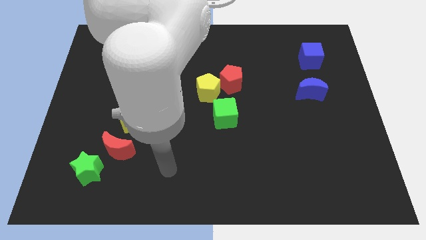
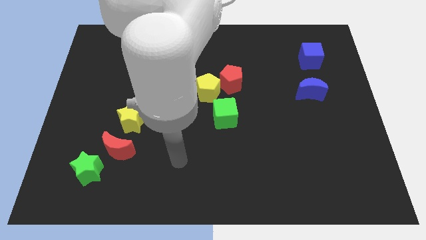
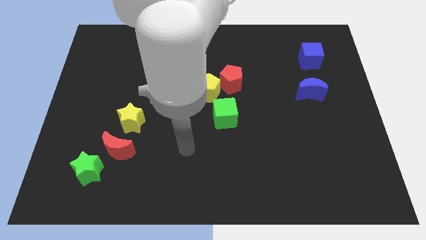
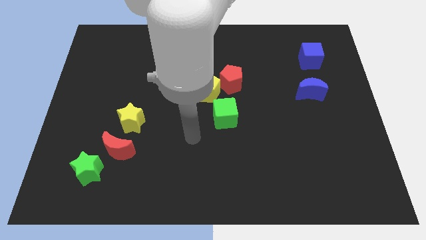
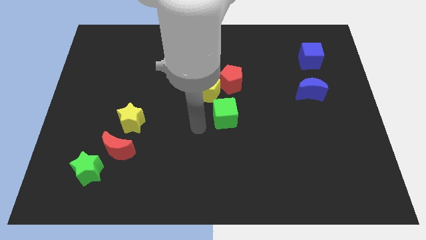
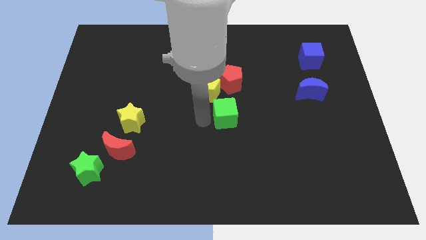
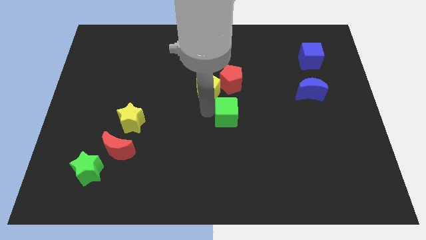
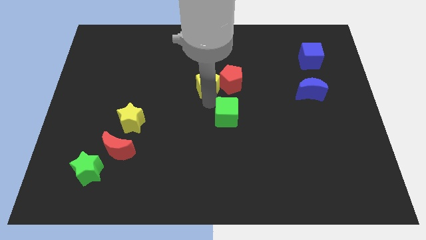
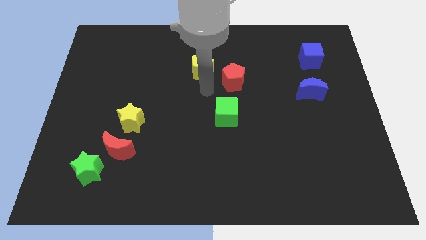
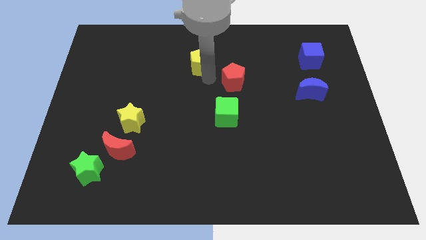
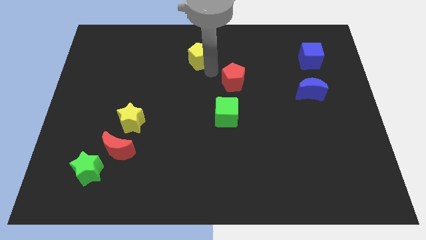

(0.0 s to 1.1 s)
pull the red pentagon apart from the yellow pentagon

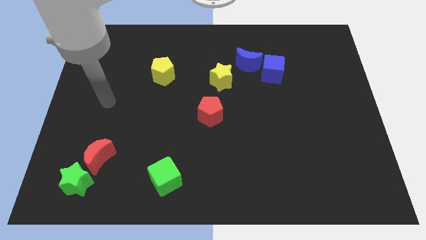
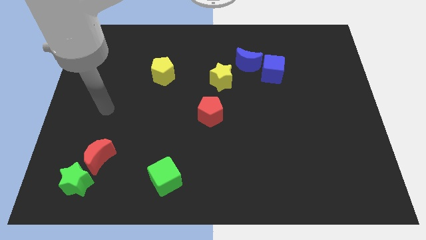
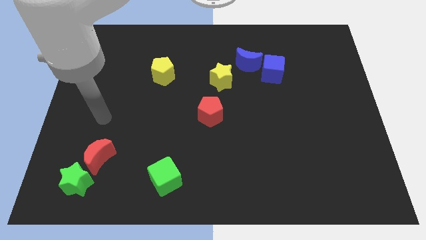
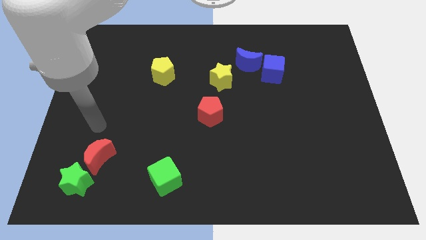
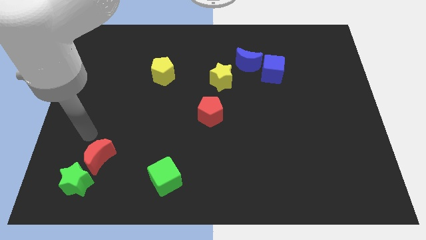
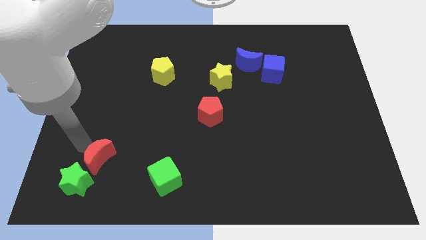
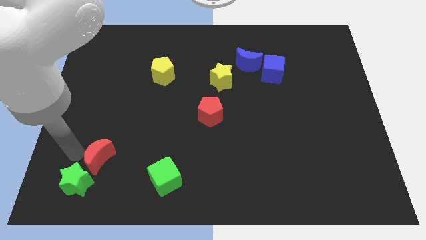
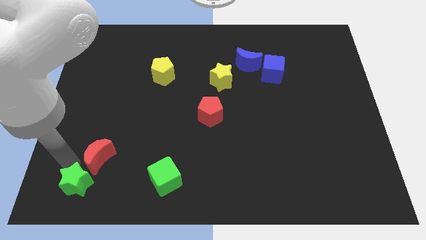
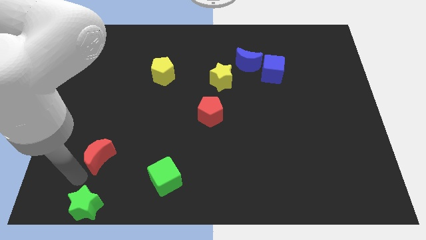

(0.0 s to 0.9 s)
move the red moon away from the green star

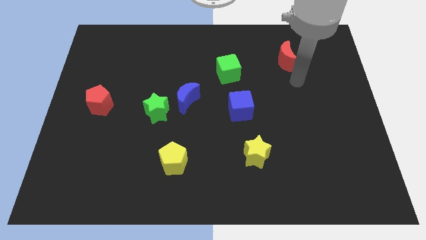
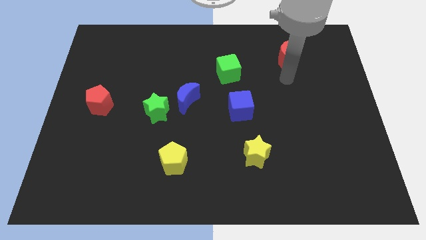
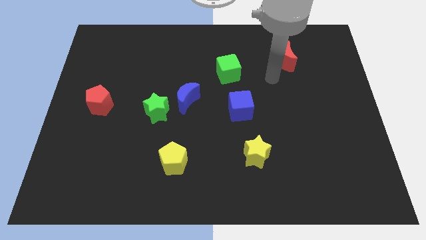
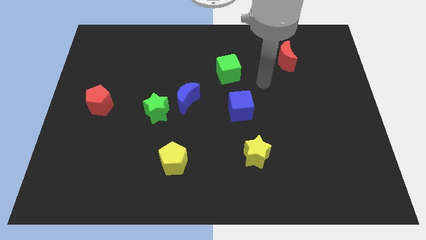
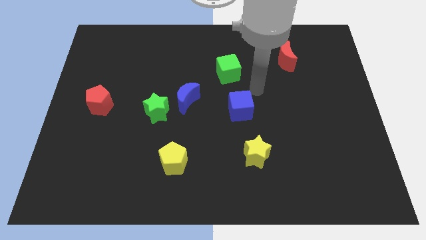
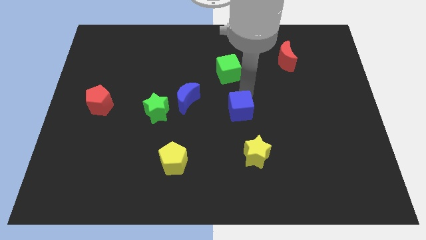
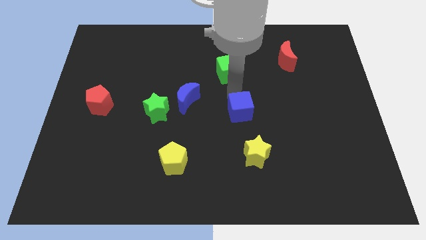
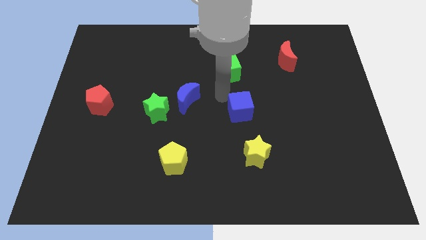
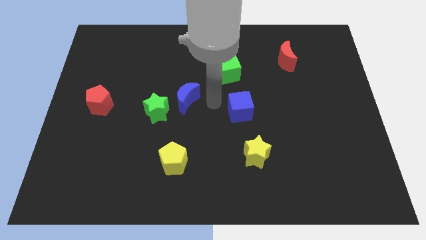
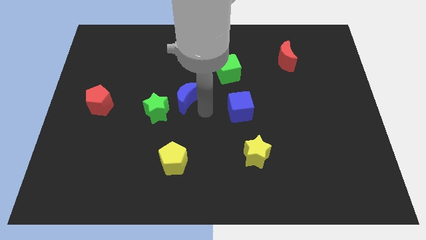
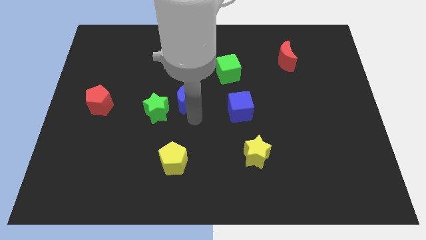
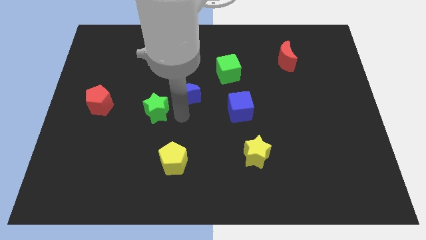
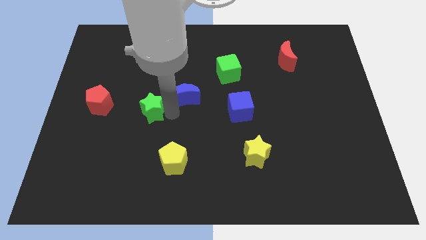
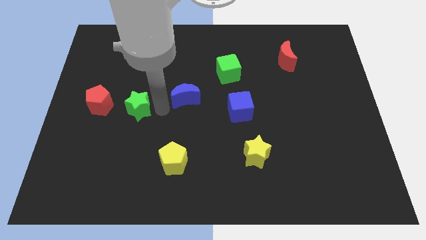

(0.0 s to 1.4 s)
pull the blue moon apart from the green star

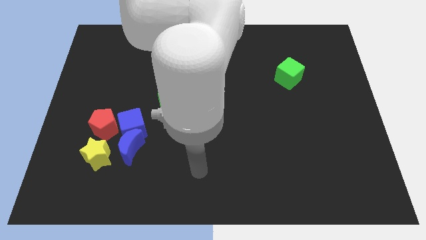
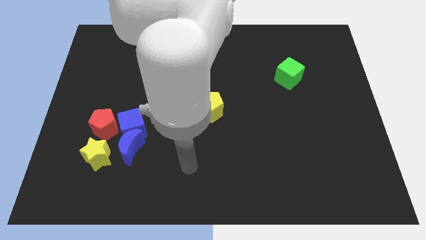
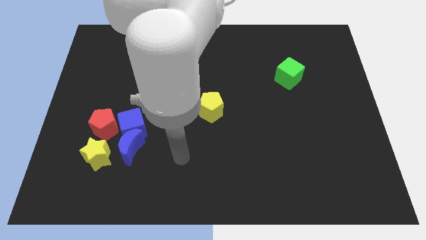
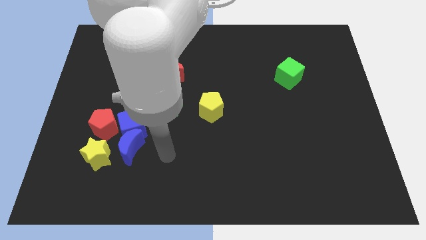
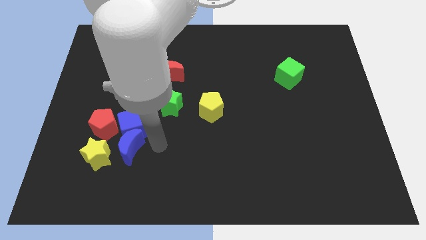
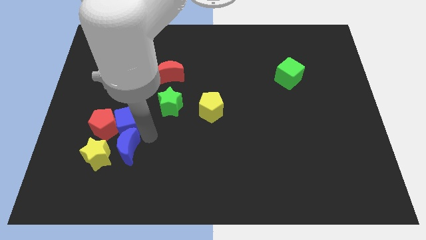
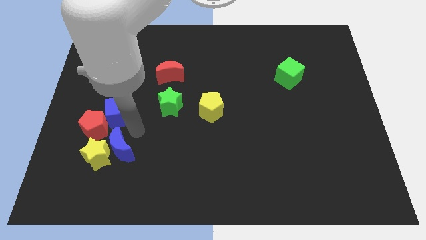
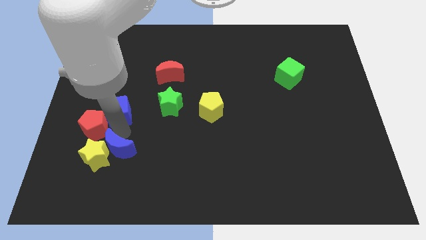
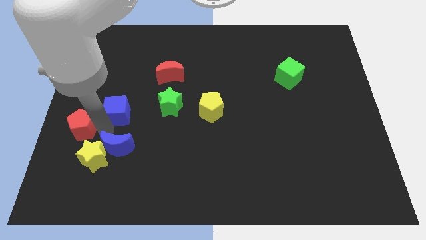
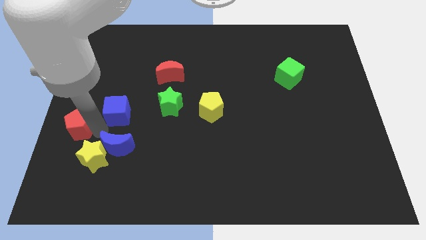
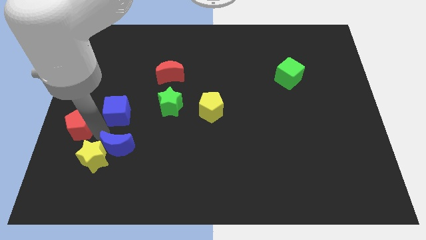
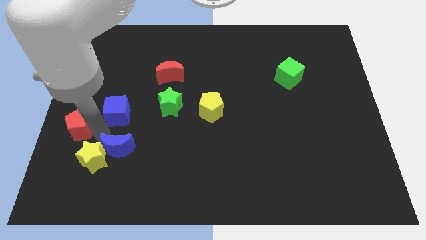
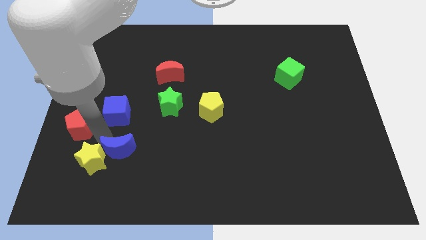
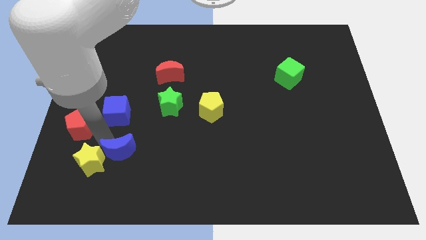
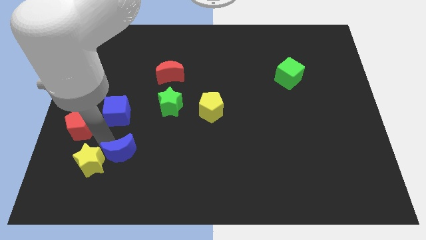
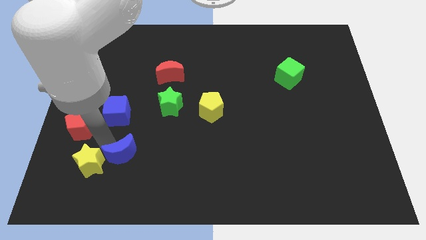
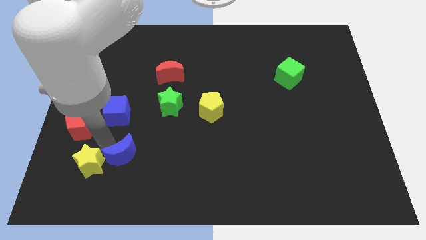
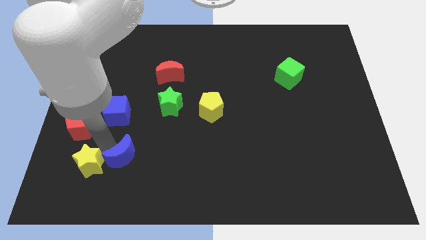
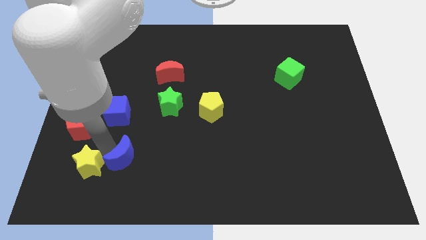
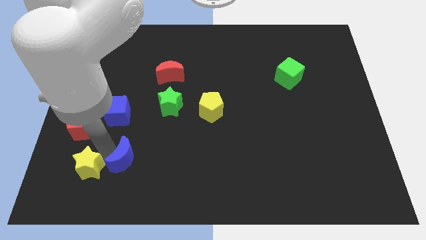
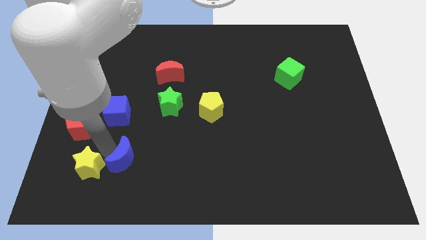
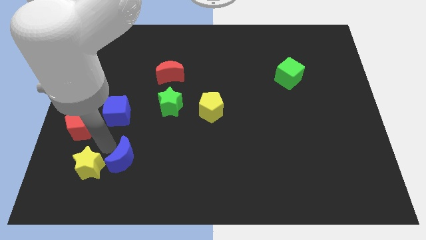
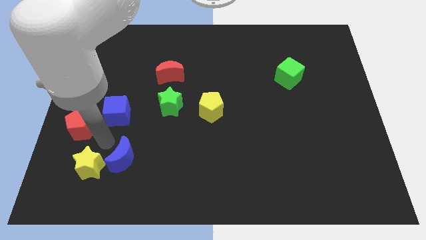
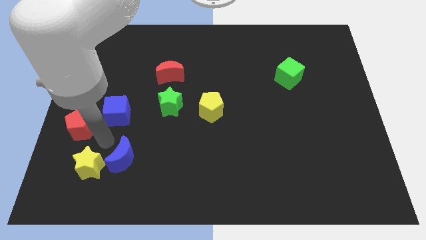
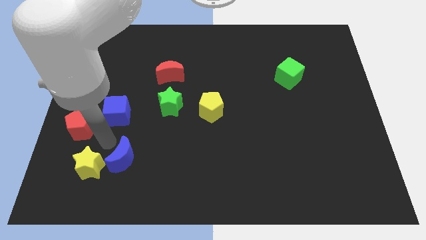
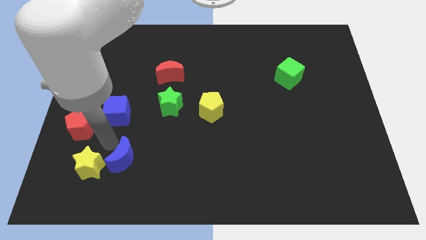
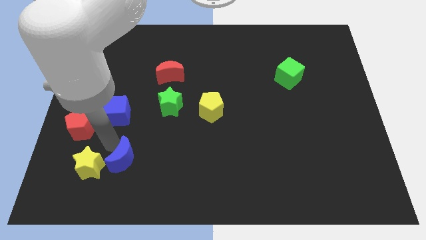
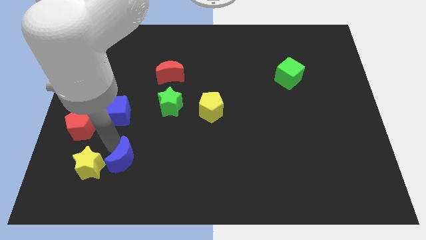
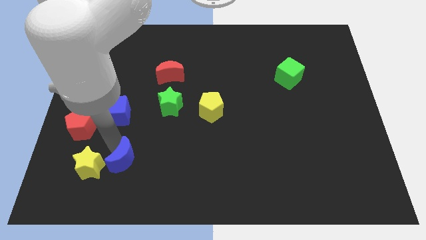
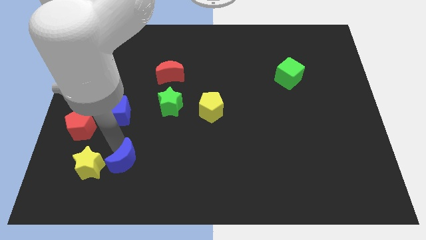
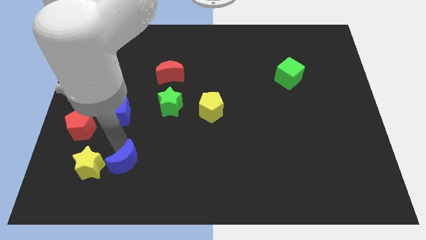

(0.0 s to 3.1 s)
move the blue moon away from the blue cube, yellow star, and red pentagon

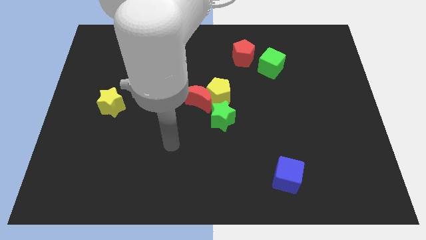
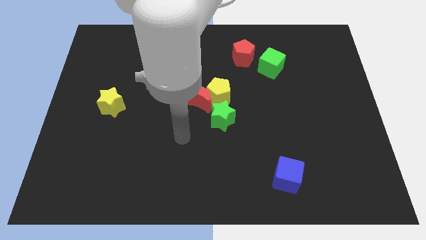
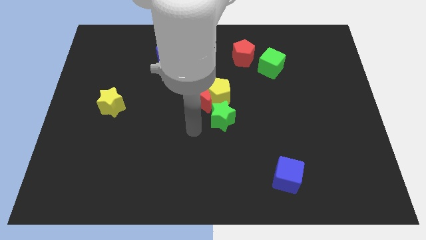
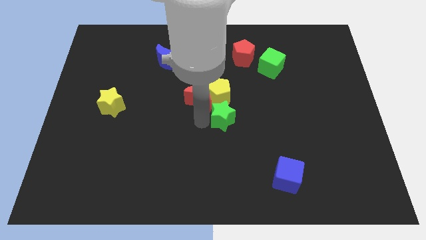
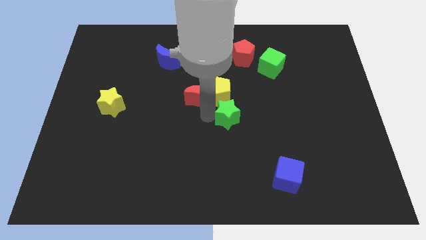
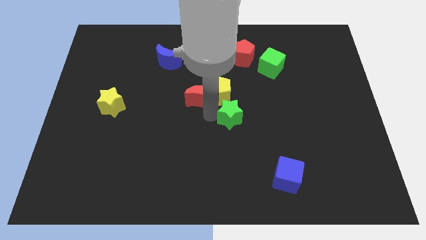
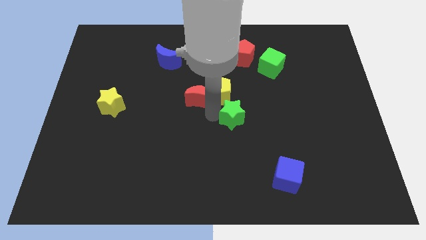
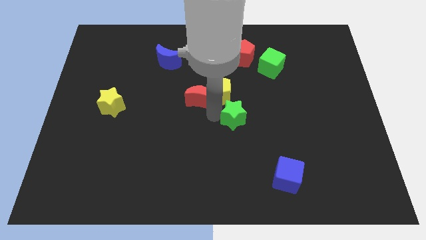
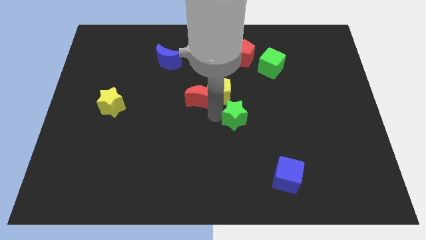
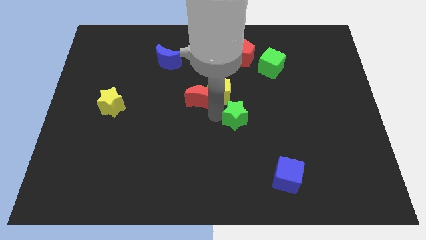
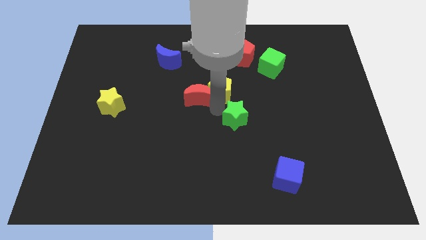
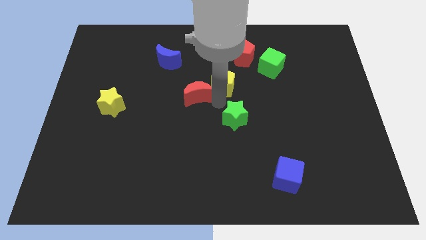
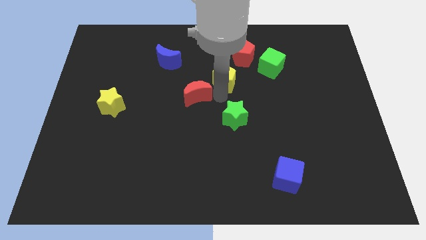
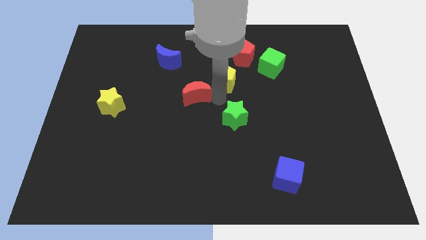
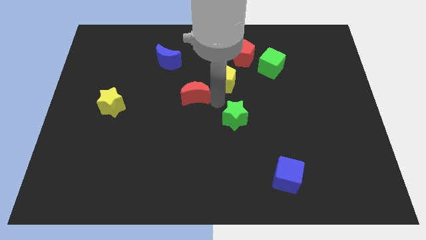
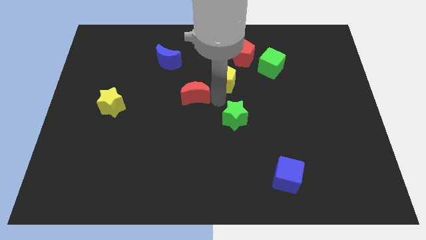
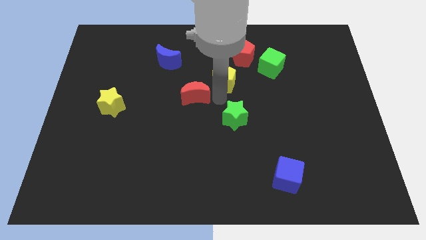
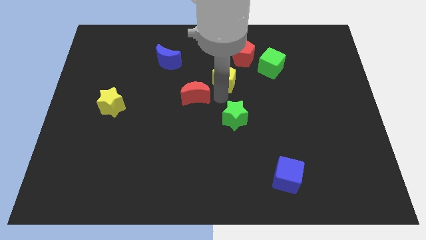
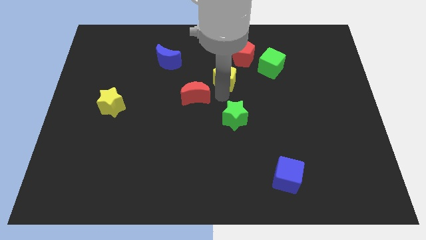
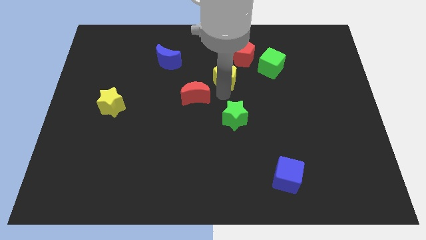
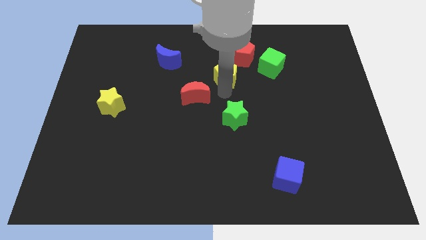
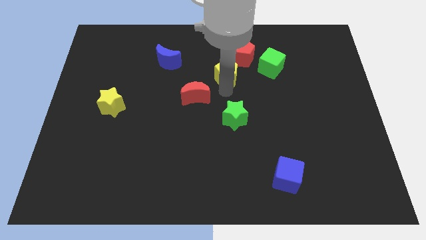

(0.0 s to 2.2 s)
separate the yellow pentagon from the red moon and green star

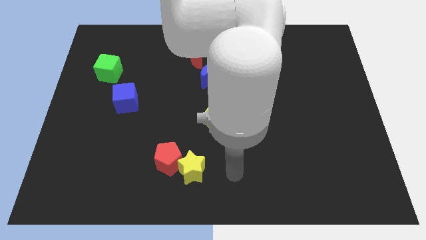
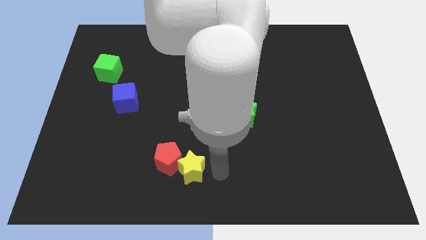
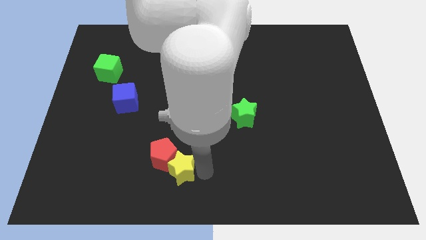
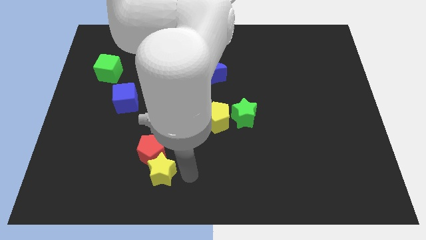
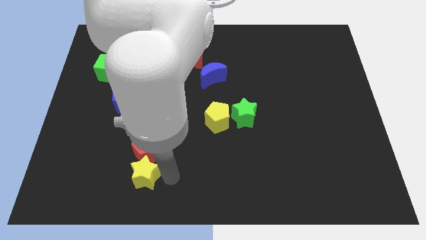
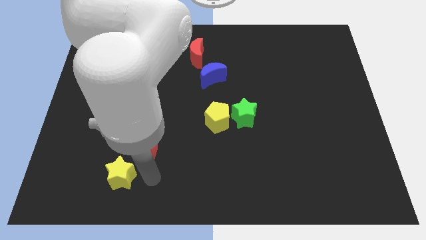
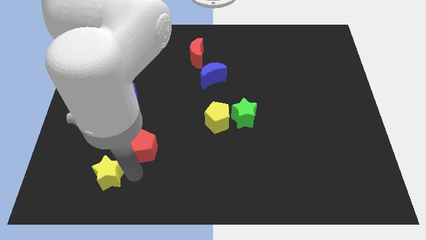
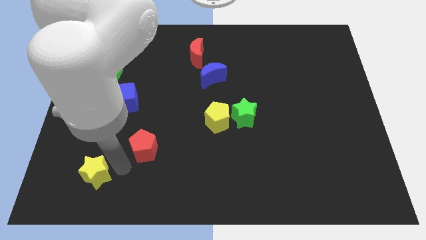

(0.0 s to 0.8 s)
separate the red pentagon from the yellow star
